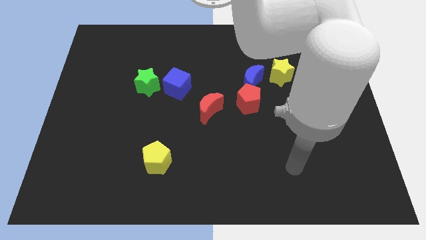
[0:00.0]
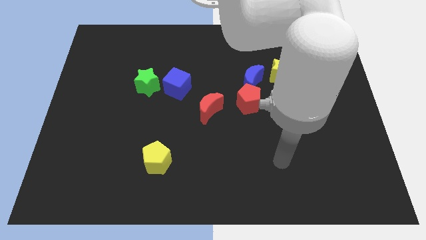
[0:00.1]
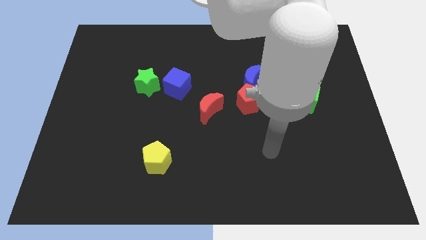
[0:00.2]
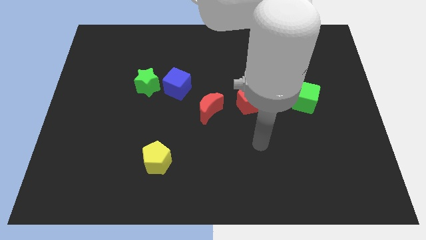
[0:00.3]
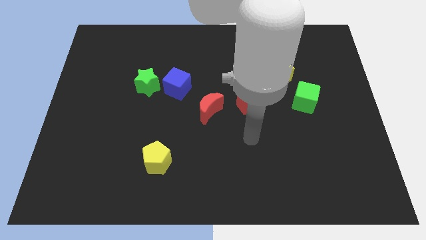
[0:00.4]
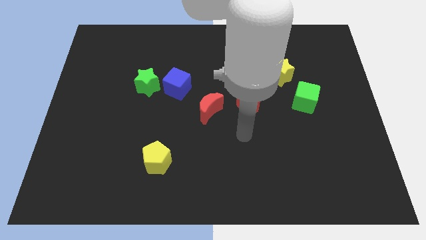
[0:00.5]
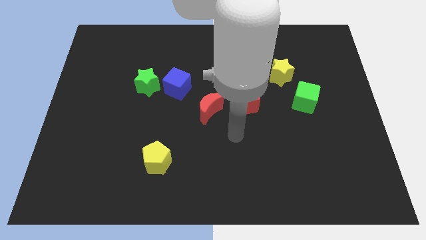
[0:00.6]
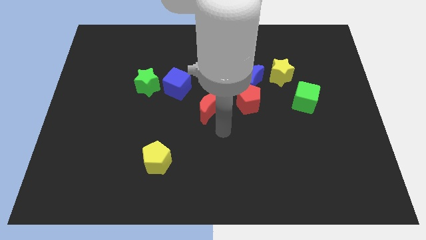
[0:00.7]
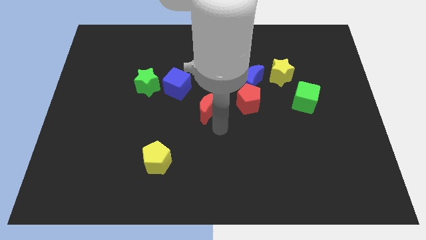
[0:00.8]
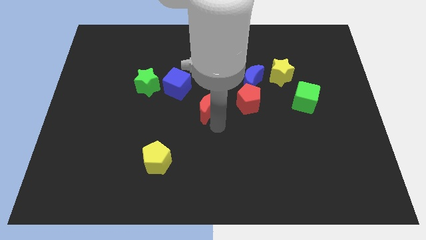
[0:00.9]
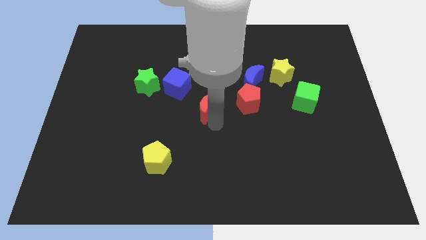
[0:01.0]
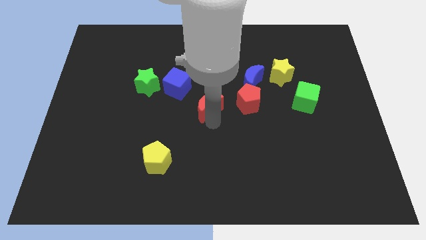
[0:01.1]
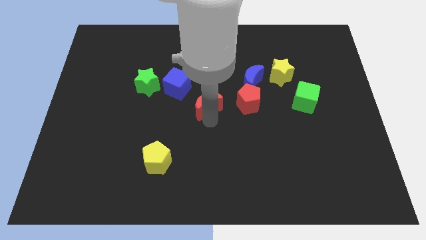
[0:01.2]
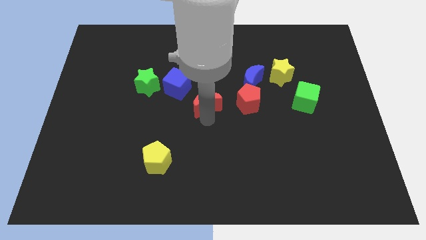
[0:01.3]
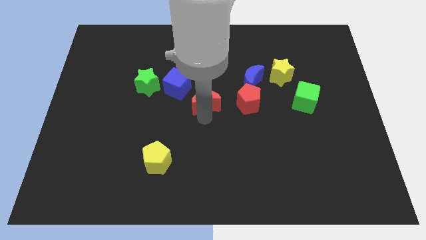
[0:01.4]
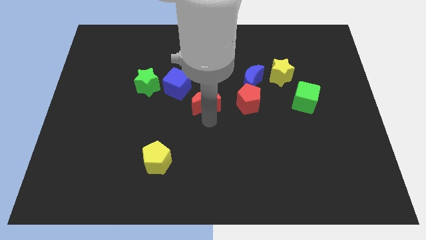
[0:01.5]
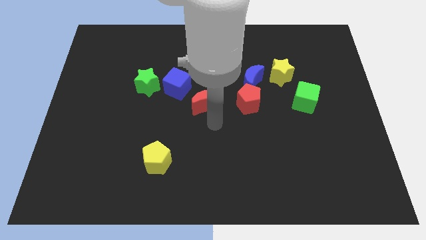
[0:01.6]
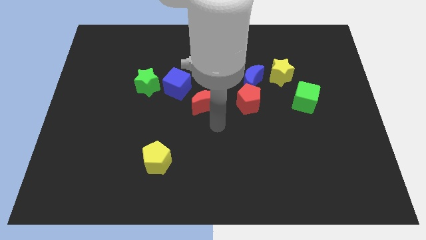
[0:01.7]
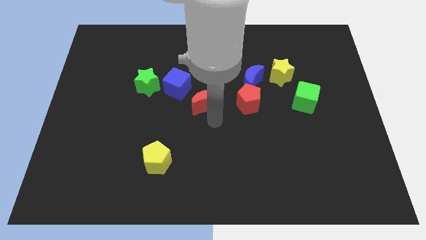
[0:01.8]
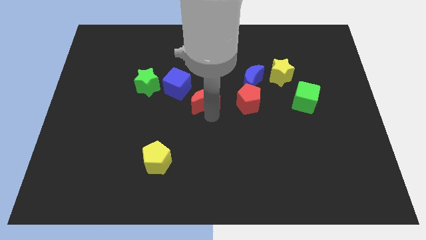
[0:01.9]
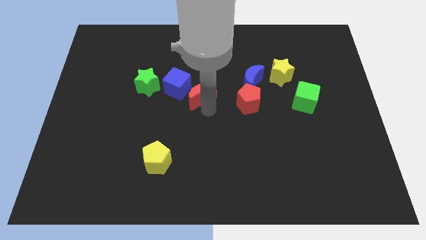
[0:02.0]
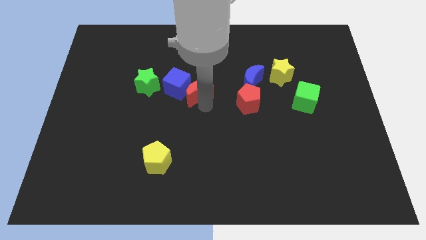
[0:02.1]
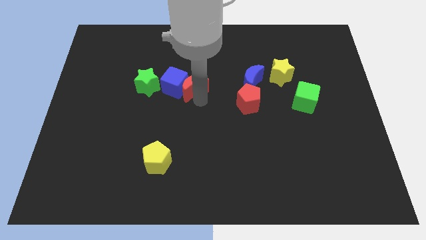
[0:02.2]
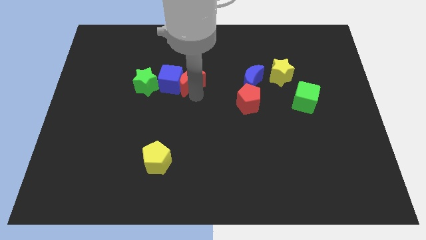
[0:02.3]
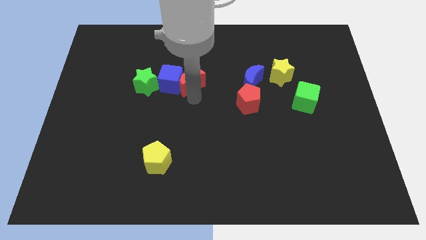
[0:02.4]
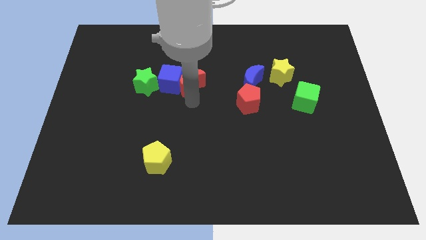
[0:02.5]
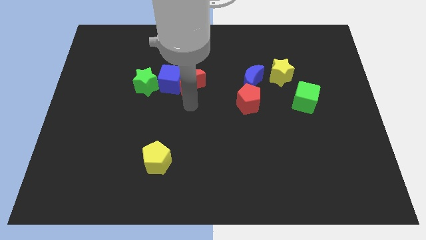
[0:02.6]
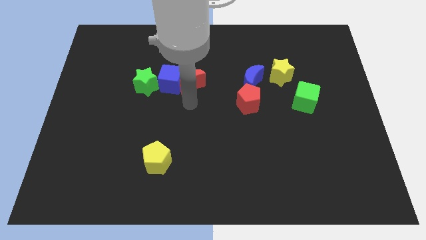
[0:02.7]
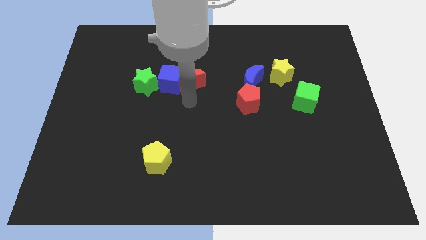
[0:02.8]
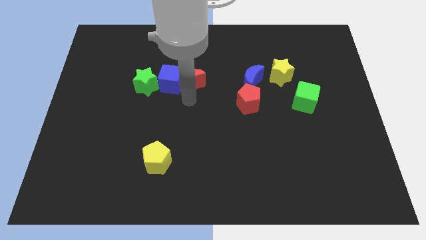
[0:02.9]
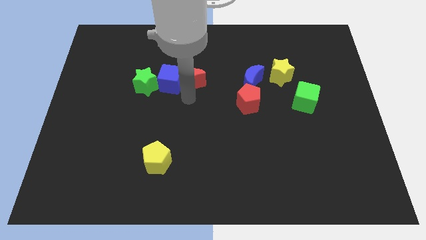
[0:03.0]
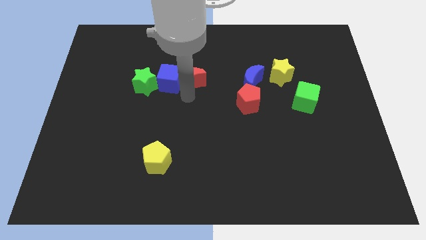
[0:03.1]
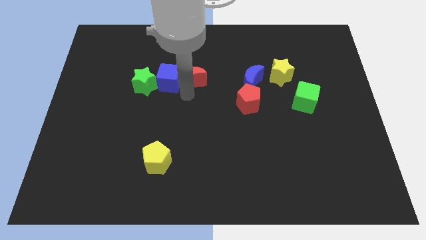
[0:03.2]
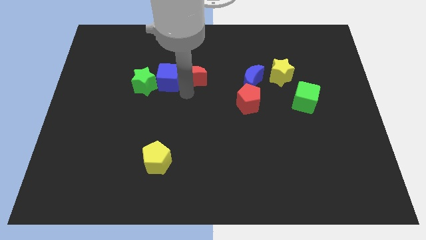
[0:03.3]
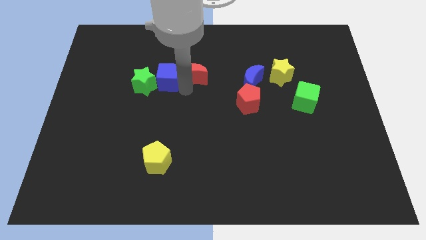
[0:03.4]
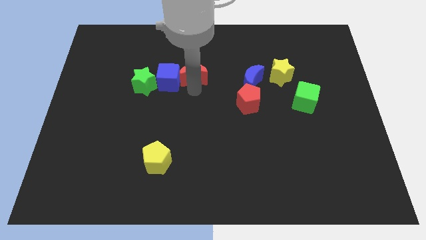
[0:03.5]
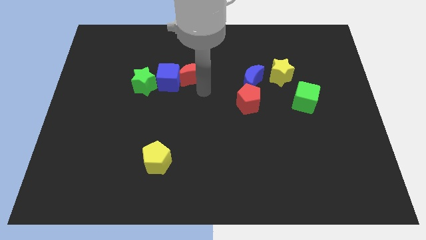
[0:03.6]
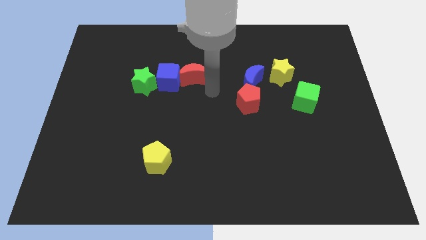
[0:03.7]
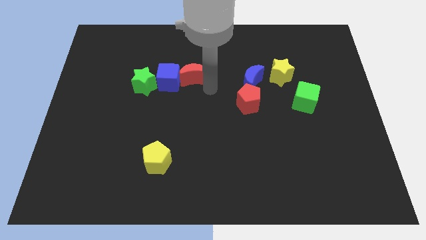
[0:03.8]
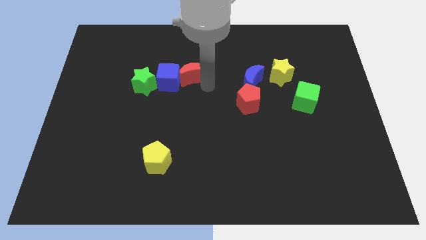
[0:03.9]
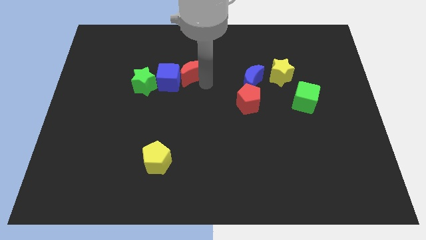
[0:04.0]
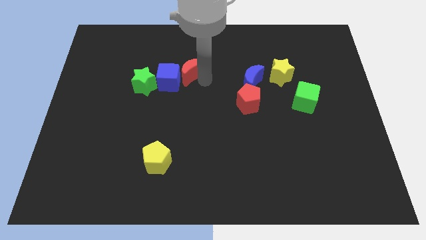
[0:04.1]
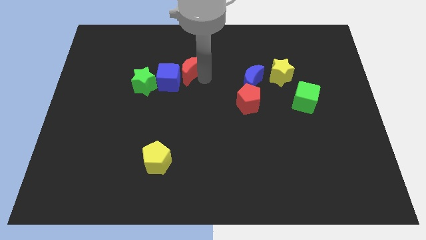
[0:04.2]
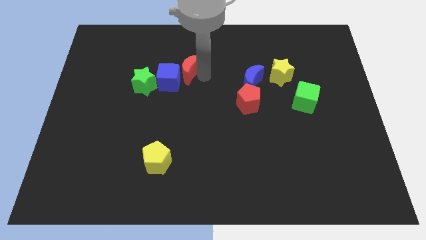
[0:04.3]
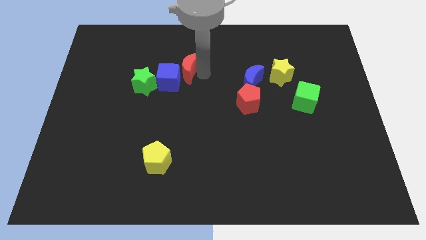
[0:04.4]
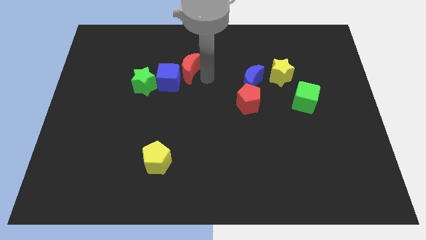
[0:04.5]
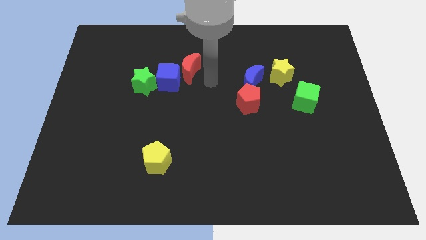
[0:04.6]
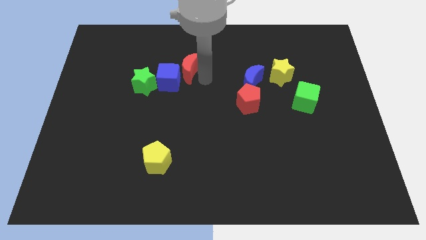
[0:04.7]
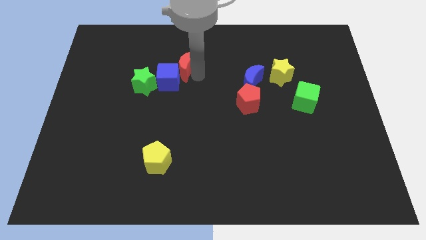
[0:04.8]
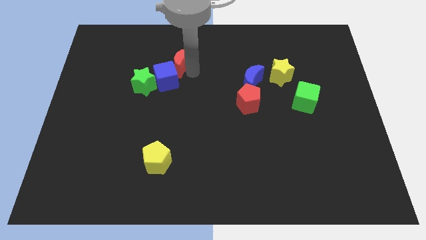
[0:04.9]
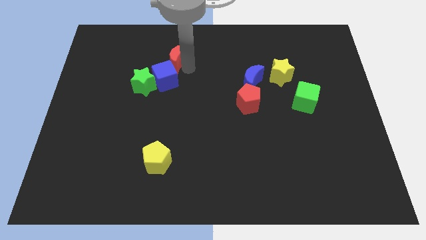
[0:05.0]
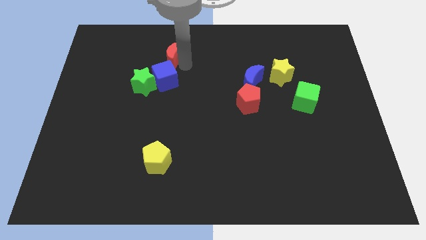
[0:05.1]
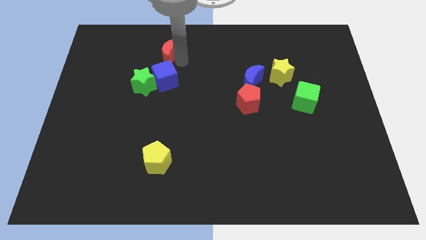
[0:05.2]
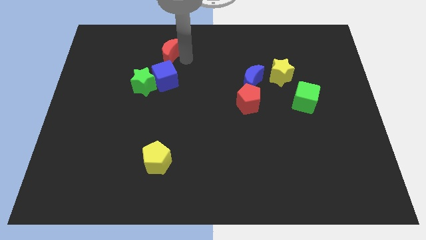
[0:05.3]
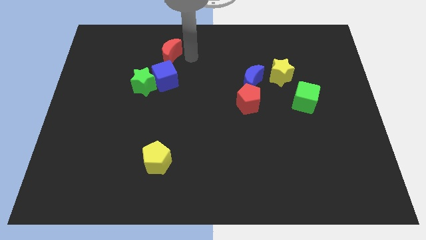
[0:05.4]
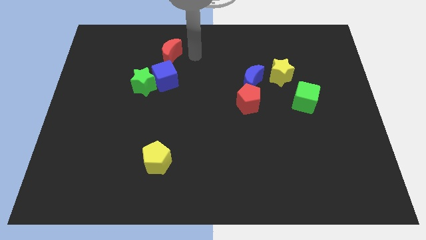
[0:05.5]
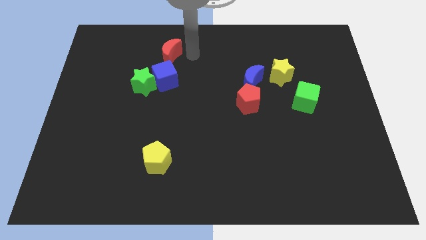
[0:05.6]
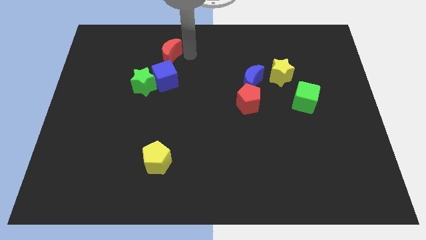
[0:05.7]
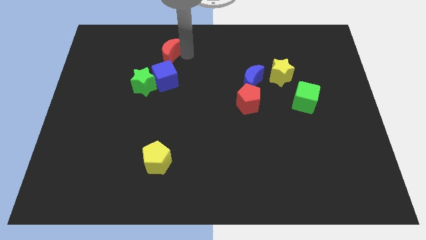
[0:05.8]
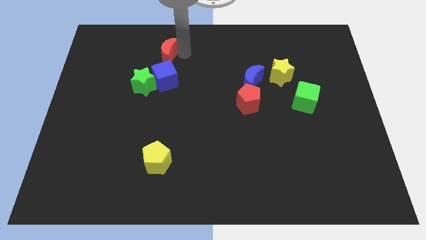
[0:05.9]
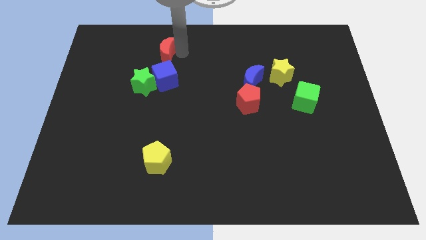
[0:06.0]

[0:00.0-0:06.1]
put the red moon to the top side of the green star

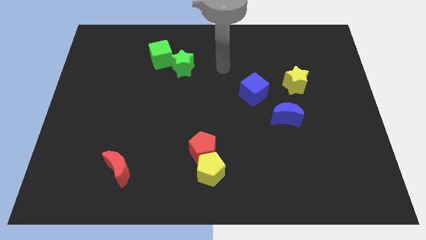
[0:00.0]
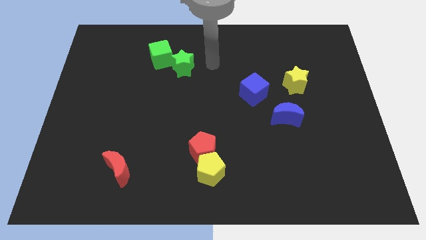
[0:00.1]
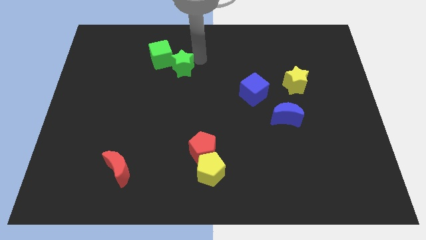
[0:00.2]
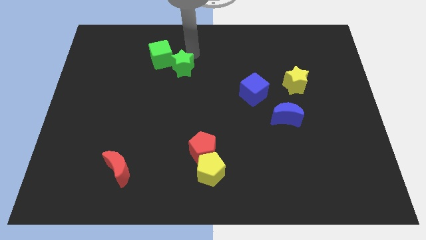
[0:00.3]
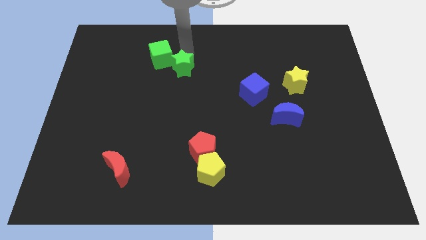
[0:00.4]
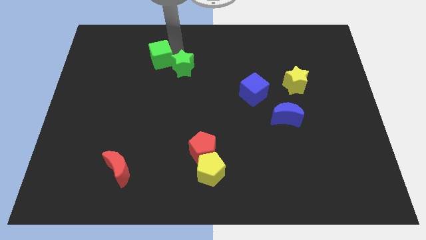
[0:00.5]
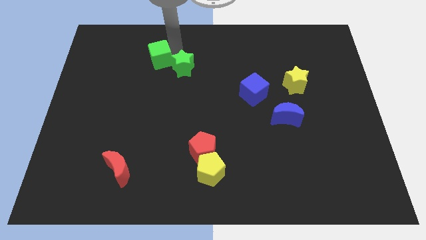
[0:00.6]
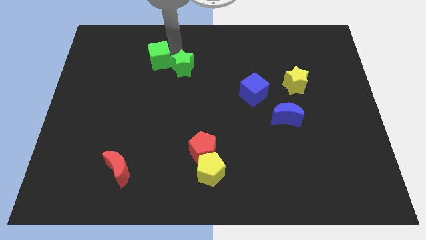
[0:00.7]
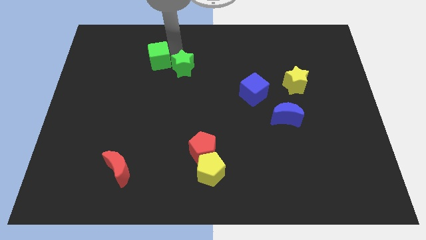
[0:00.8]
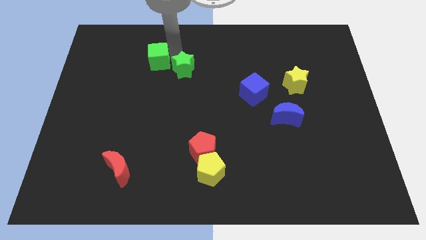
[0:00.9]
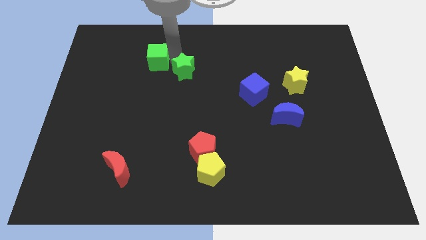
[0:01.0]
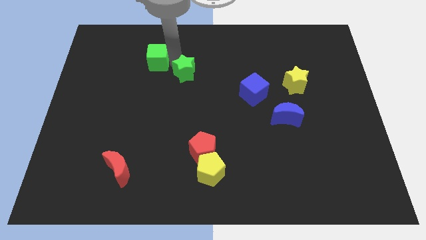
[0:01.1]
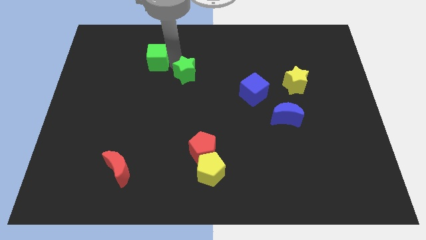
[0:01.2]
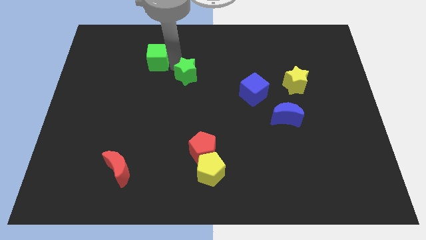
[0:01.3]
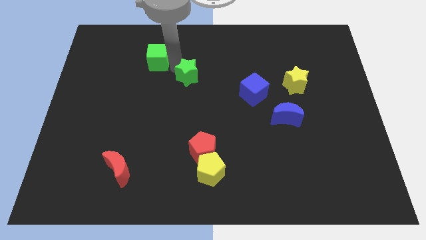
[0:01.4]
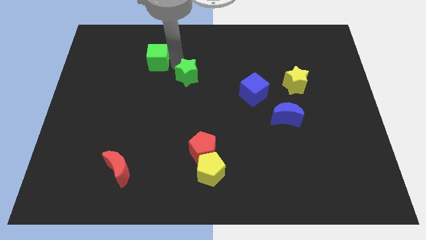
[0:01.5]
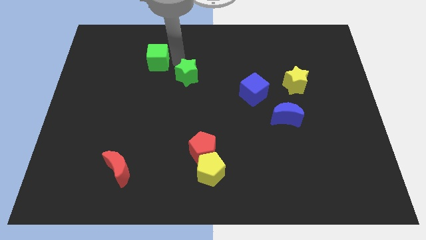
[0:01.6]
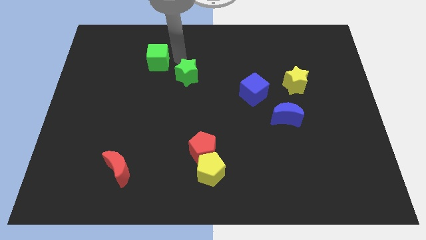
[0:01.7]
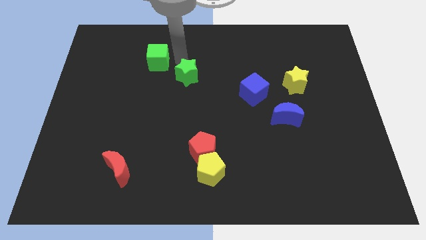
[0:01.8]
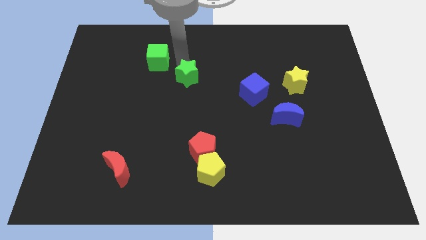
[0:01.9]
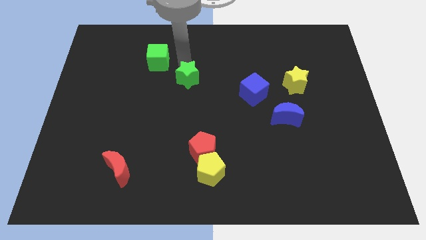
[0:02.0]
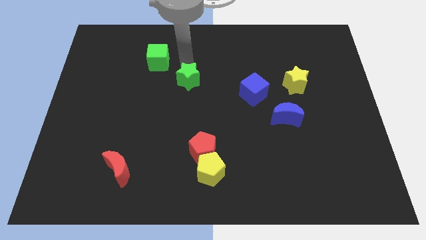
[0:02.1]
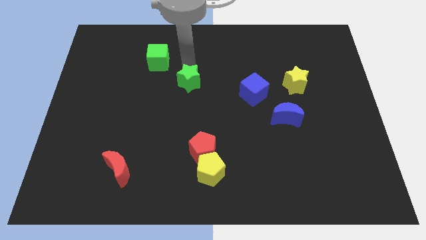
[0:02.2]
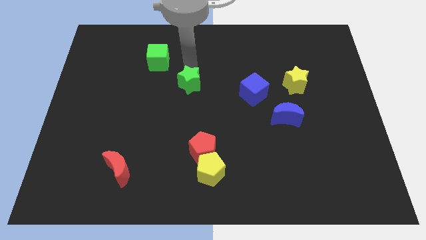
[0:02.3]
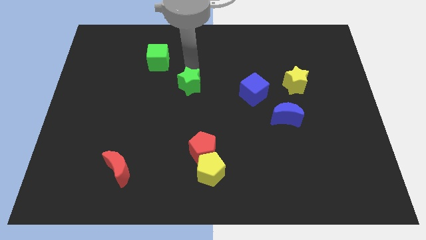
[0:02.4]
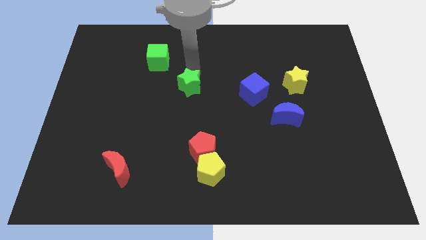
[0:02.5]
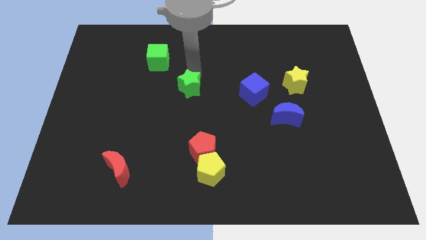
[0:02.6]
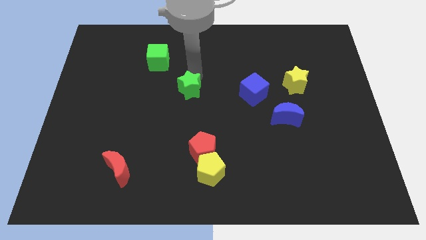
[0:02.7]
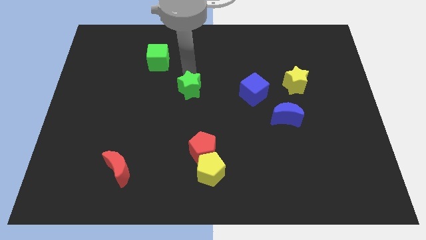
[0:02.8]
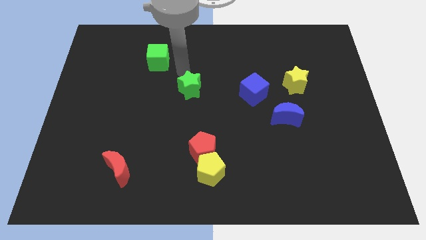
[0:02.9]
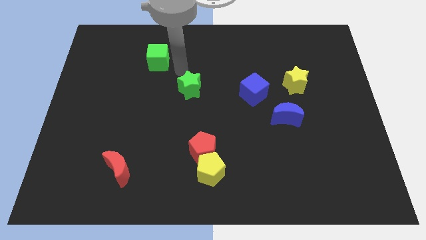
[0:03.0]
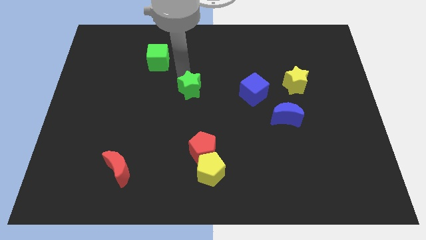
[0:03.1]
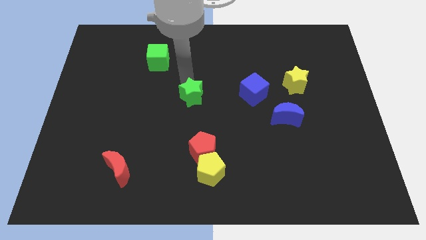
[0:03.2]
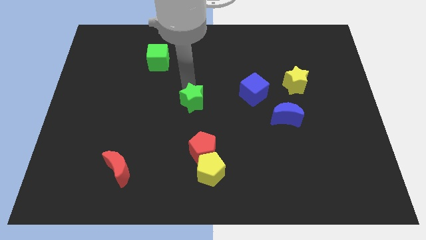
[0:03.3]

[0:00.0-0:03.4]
move the green star to the top of the red pentagon
